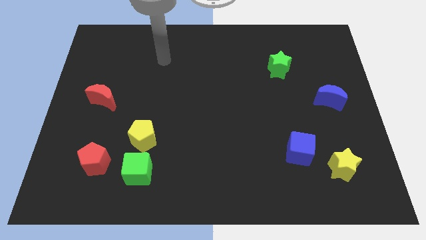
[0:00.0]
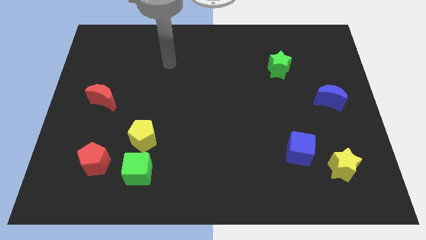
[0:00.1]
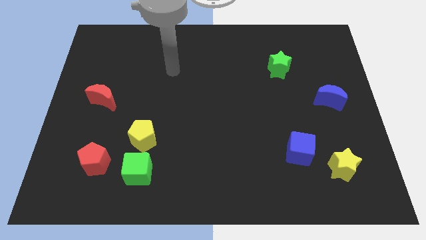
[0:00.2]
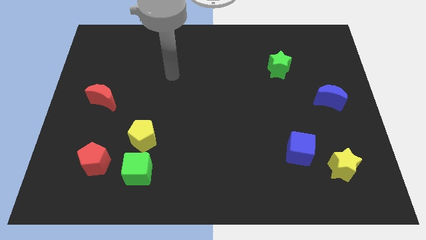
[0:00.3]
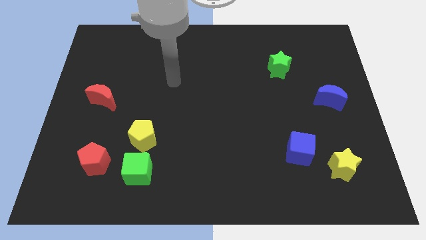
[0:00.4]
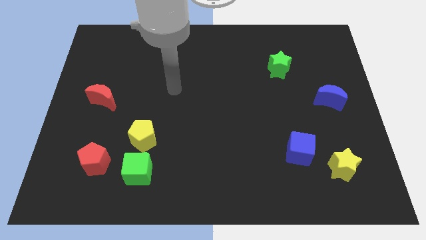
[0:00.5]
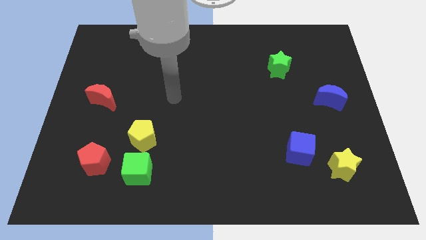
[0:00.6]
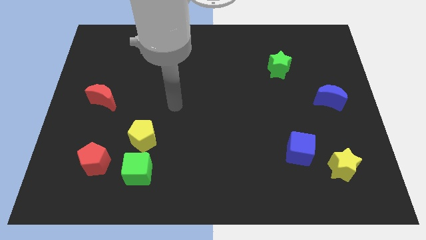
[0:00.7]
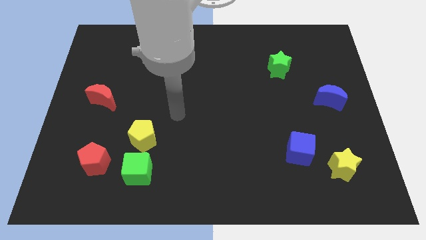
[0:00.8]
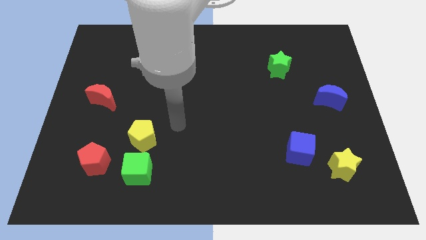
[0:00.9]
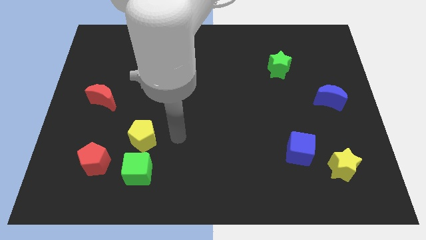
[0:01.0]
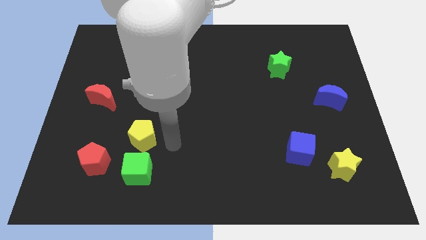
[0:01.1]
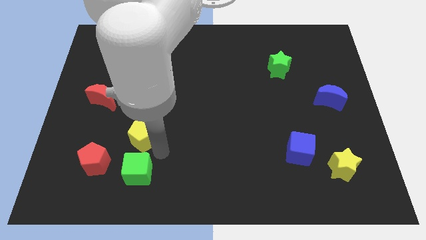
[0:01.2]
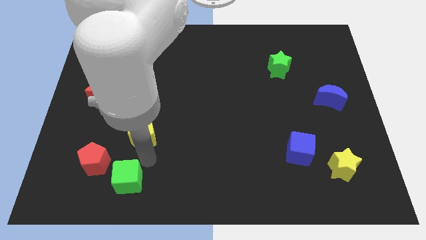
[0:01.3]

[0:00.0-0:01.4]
separate the yellow pentagon from the green cube

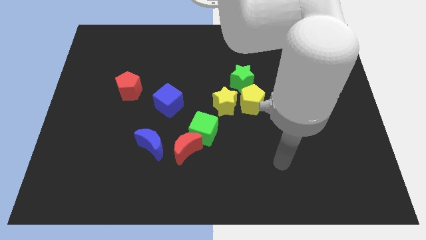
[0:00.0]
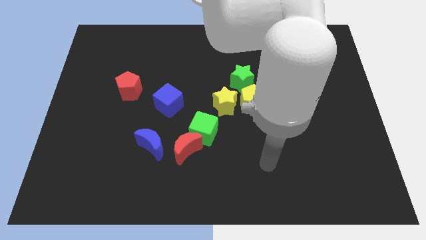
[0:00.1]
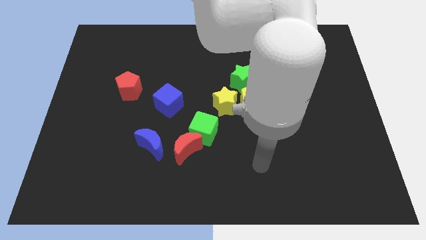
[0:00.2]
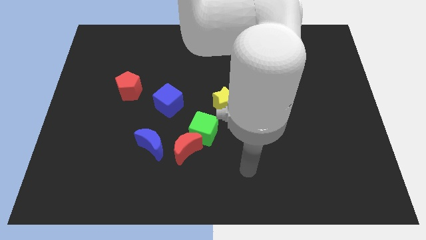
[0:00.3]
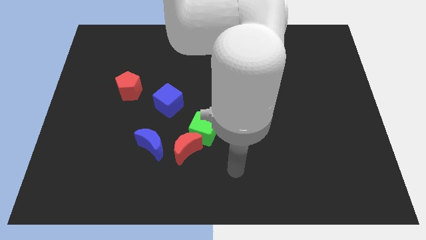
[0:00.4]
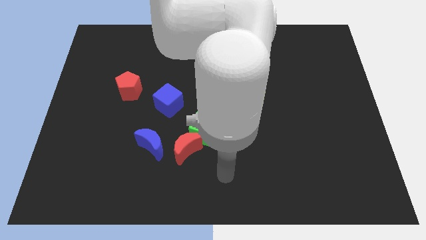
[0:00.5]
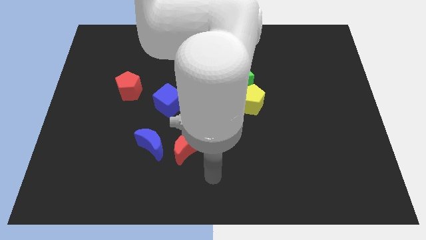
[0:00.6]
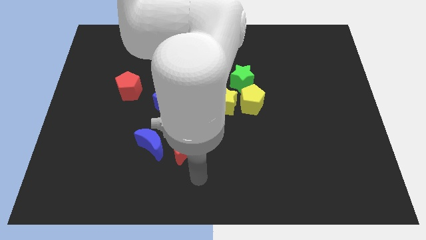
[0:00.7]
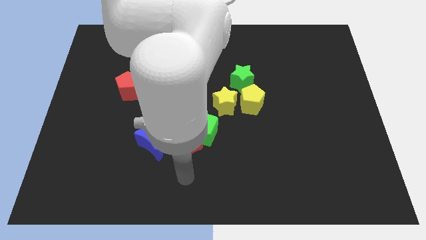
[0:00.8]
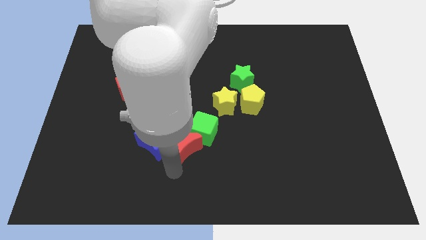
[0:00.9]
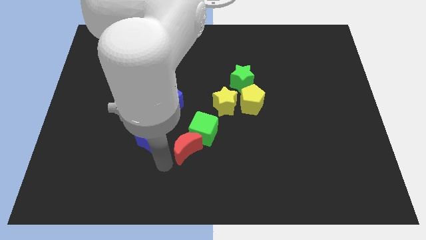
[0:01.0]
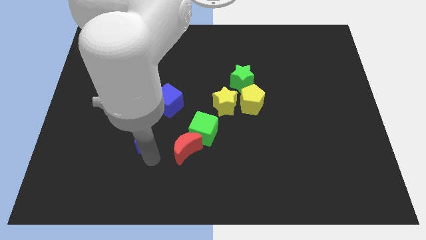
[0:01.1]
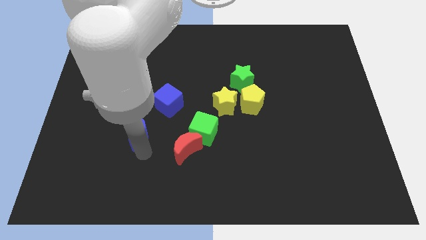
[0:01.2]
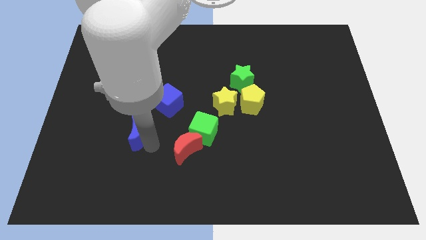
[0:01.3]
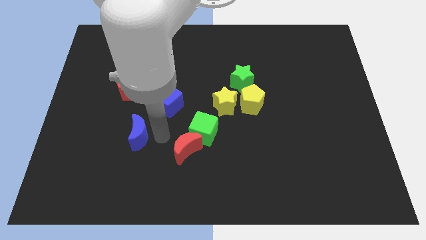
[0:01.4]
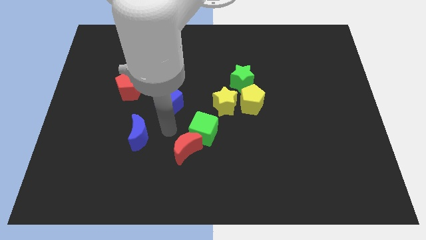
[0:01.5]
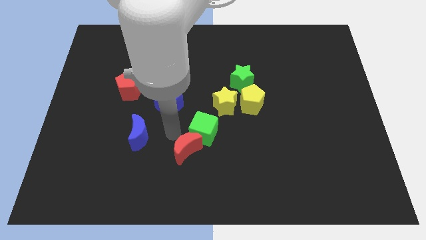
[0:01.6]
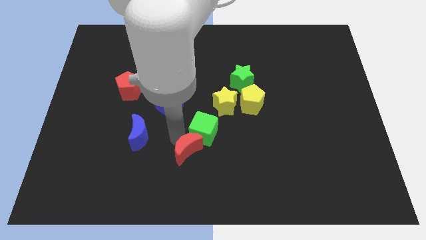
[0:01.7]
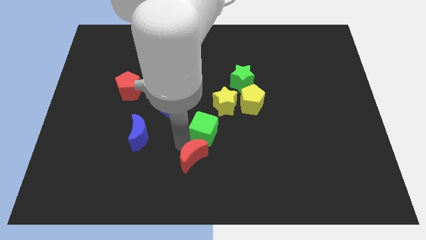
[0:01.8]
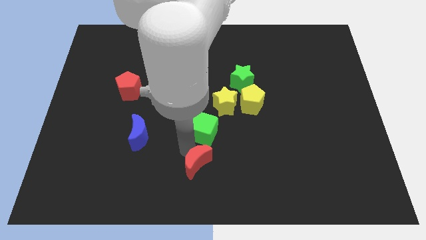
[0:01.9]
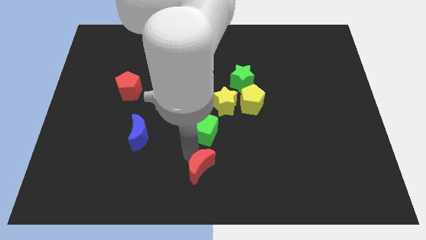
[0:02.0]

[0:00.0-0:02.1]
move the red moon away from the green cube and blue moon

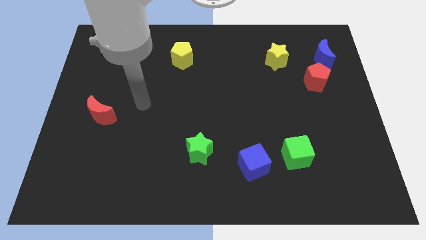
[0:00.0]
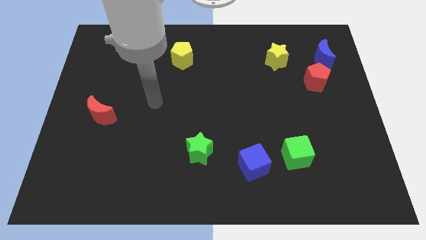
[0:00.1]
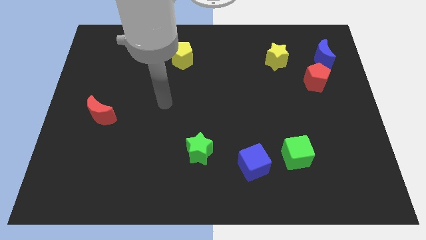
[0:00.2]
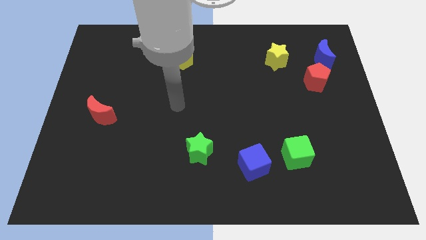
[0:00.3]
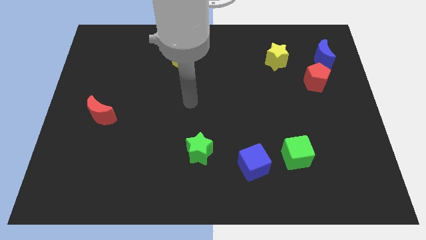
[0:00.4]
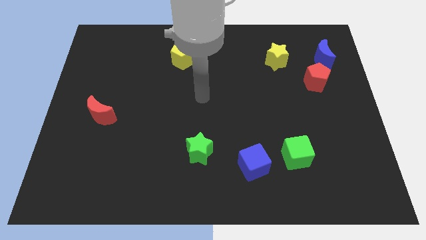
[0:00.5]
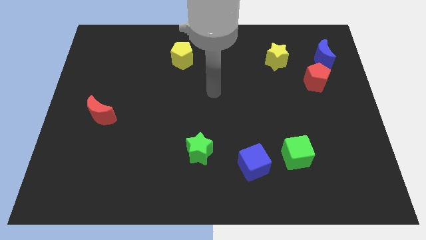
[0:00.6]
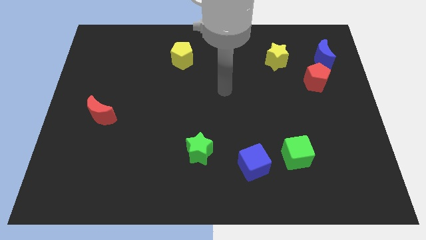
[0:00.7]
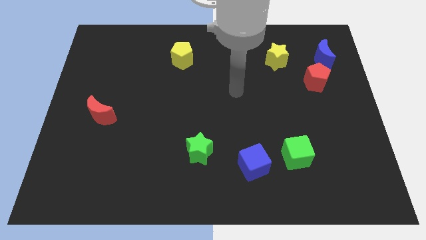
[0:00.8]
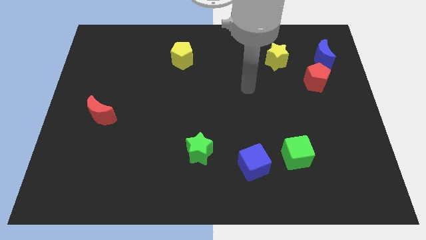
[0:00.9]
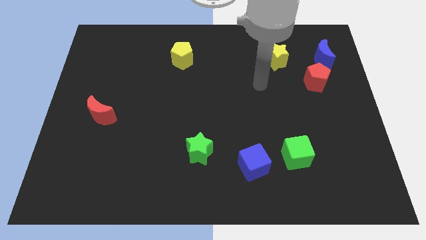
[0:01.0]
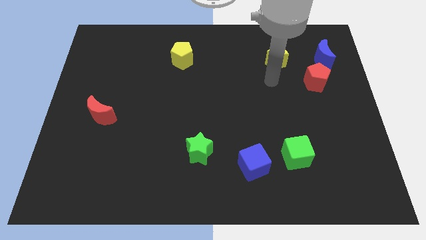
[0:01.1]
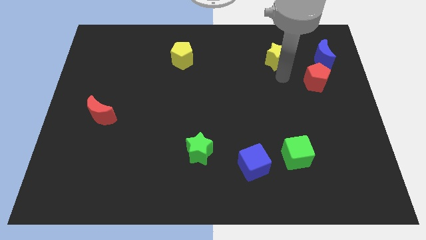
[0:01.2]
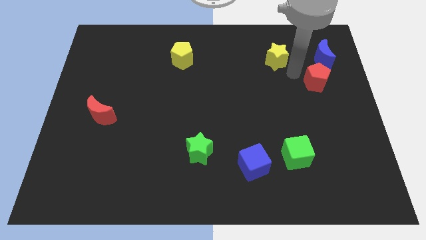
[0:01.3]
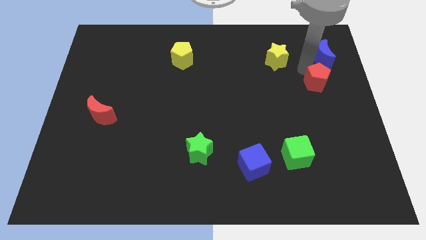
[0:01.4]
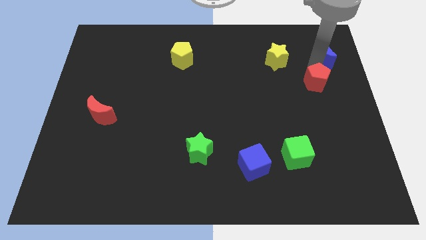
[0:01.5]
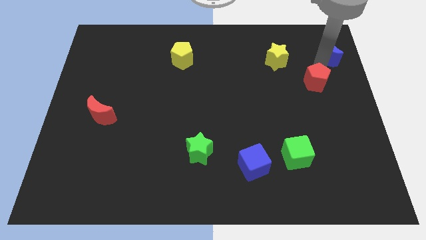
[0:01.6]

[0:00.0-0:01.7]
move the red pentagon away from the blue moon

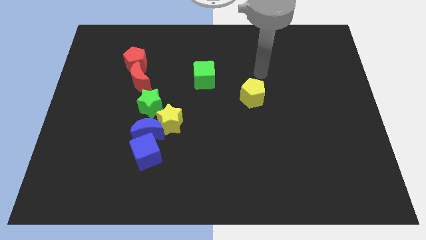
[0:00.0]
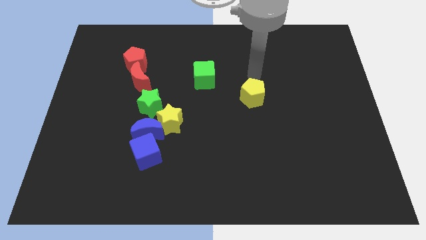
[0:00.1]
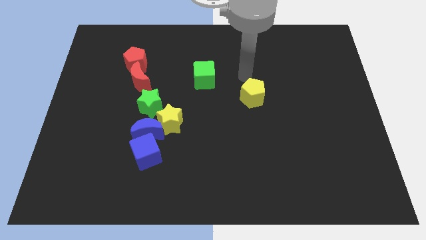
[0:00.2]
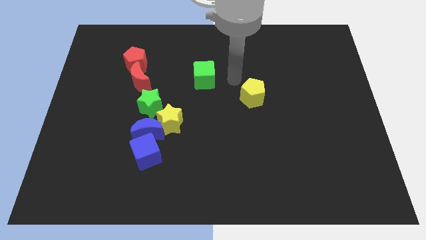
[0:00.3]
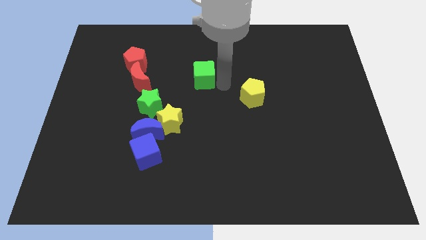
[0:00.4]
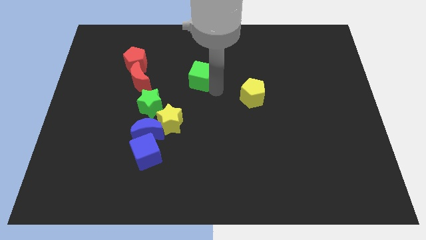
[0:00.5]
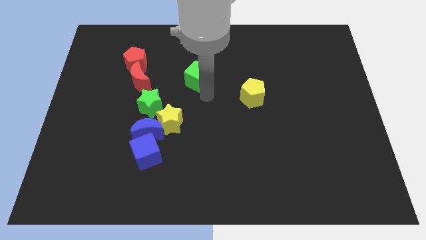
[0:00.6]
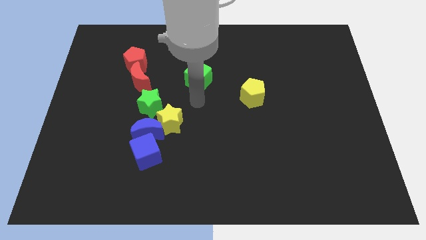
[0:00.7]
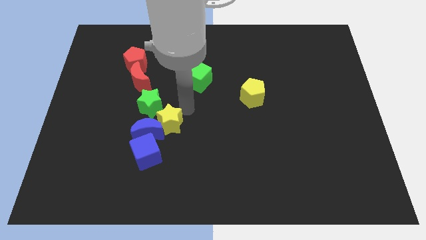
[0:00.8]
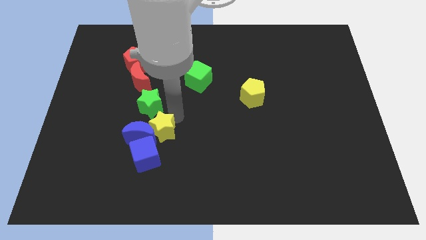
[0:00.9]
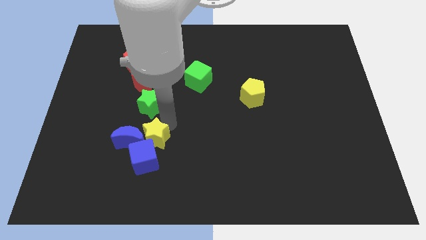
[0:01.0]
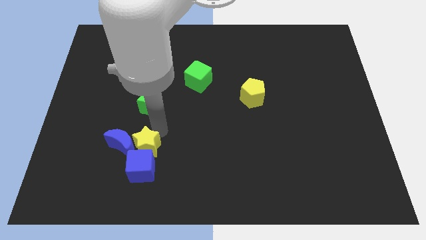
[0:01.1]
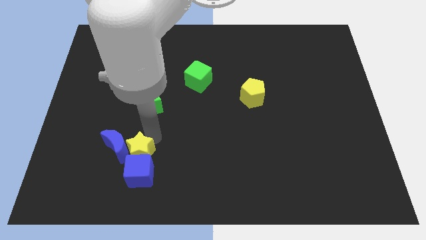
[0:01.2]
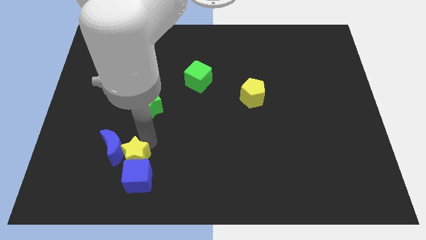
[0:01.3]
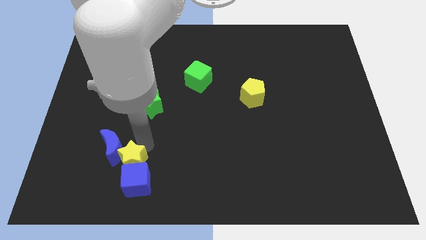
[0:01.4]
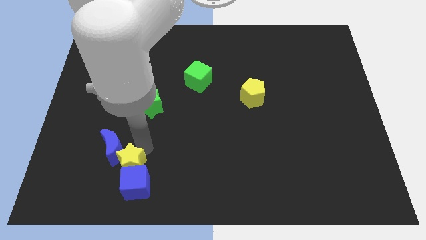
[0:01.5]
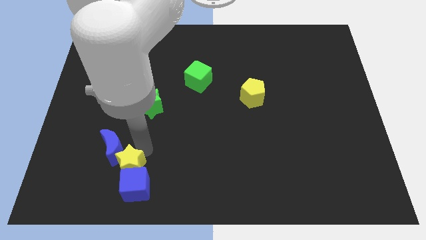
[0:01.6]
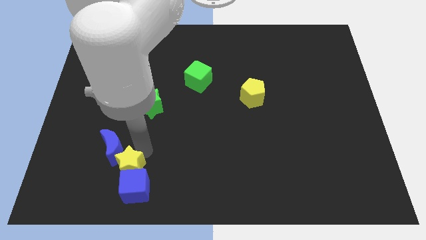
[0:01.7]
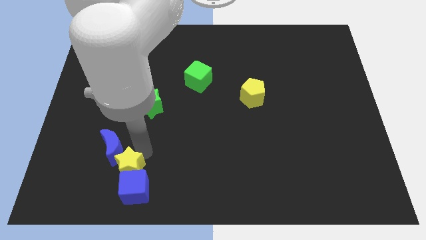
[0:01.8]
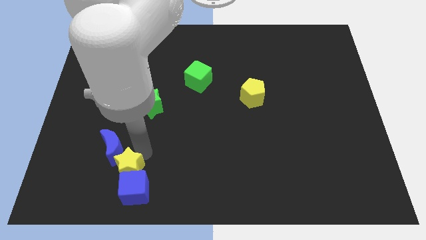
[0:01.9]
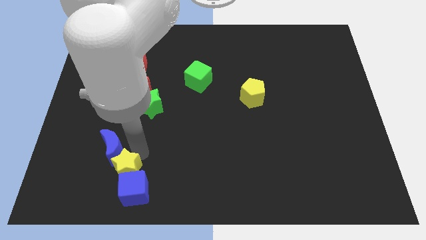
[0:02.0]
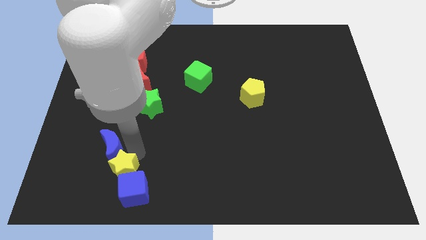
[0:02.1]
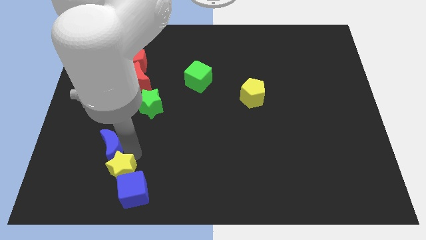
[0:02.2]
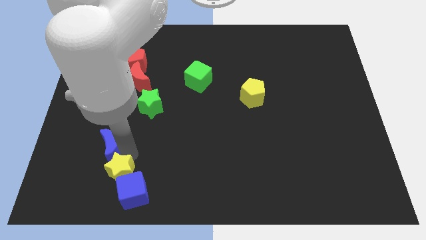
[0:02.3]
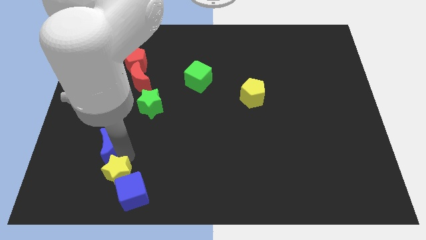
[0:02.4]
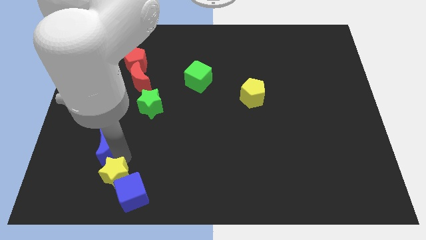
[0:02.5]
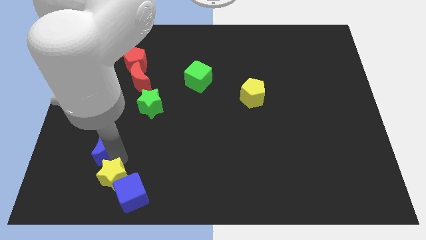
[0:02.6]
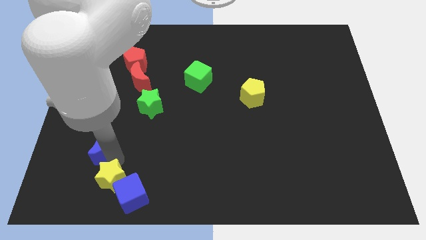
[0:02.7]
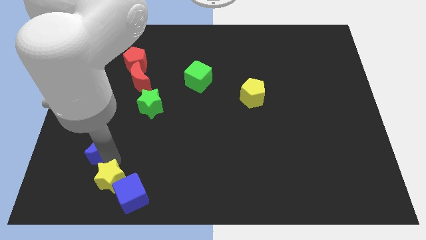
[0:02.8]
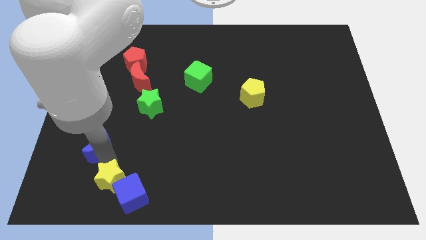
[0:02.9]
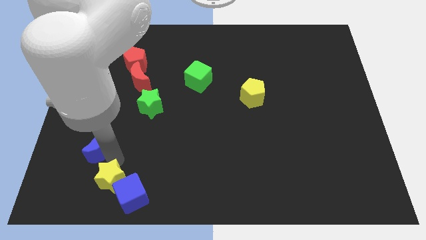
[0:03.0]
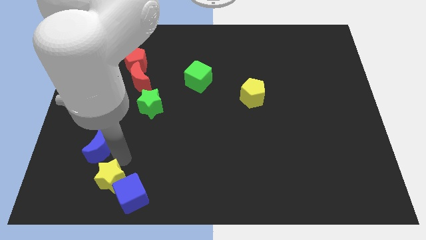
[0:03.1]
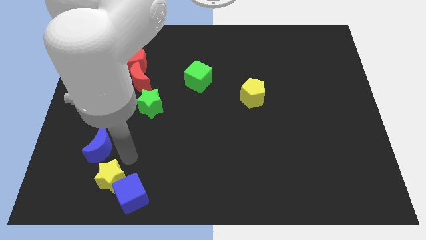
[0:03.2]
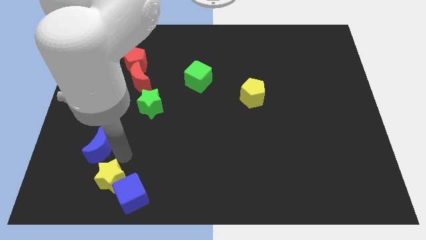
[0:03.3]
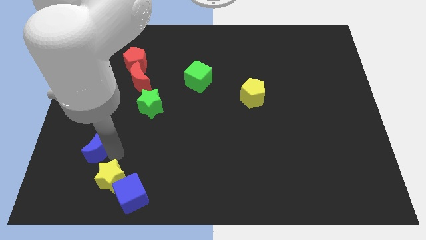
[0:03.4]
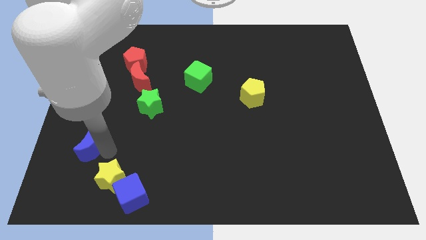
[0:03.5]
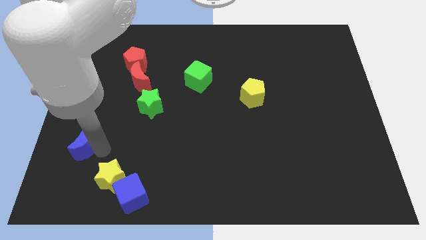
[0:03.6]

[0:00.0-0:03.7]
pull the blue moon apart from the group of blocks

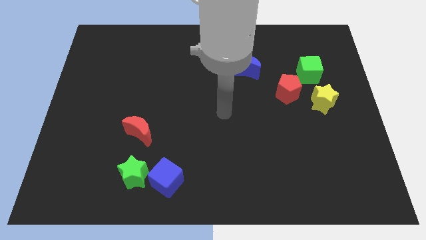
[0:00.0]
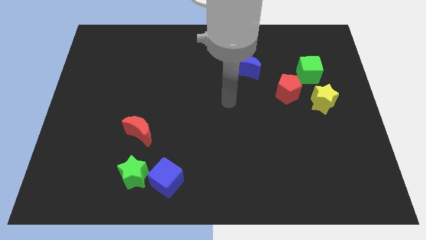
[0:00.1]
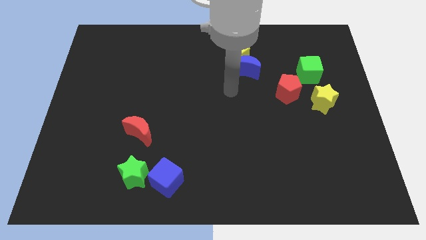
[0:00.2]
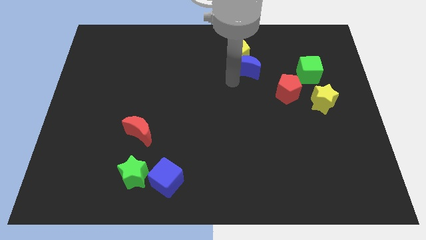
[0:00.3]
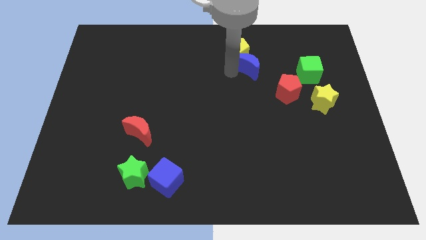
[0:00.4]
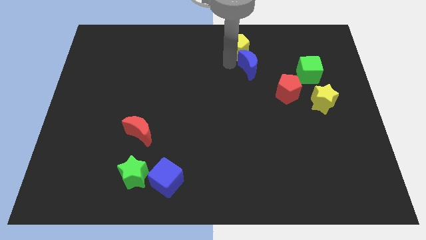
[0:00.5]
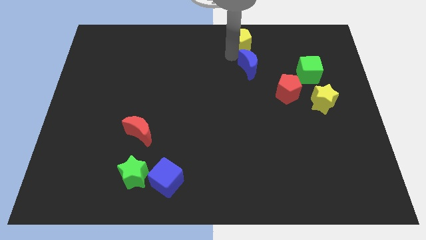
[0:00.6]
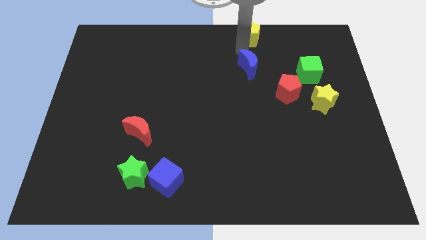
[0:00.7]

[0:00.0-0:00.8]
separate the blue moon from the yellow pentagon
